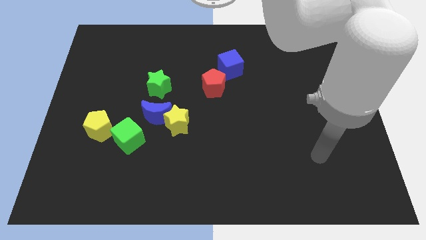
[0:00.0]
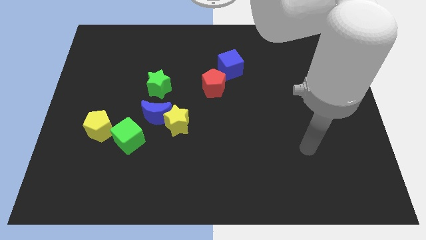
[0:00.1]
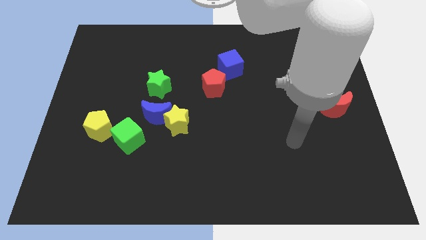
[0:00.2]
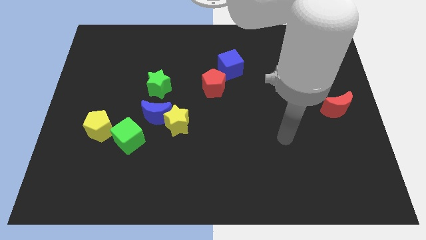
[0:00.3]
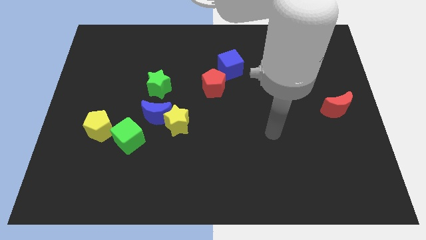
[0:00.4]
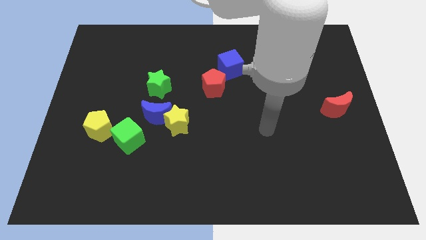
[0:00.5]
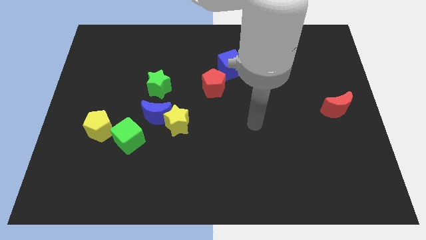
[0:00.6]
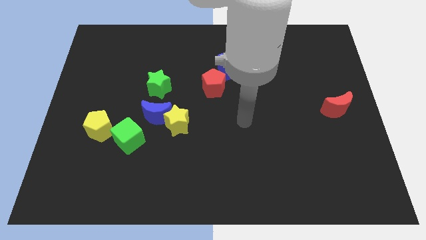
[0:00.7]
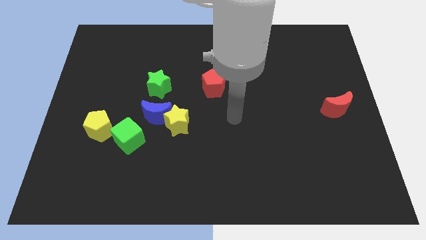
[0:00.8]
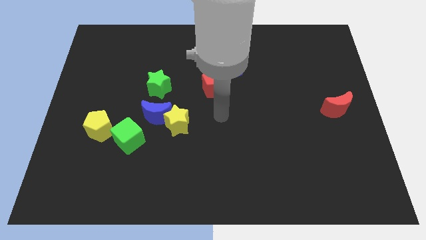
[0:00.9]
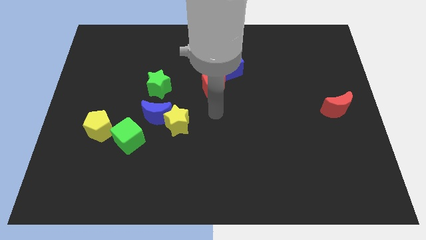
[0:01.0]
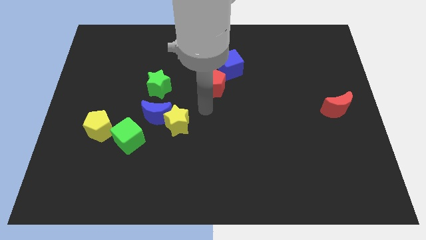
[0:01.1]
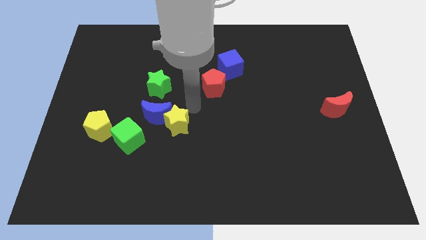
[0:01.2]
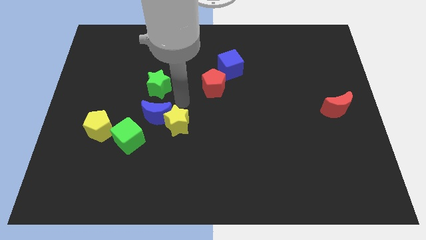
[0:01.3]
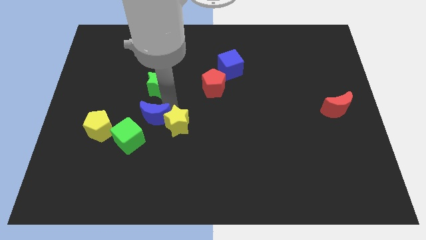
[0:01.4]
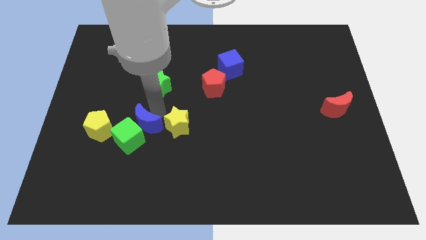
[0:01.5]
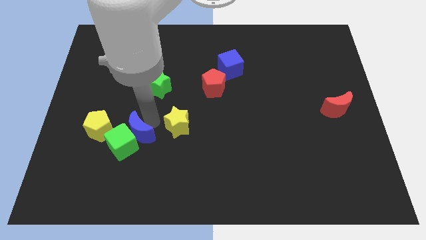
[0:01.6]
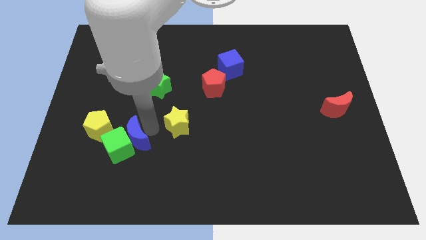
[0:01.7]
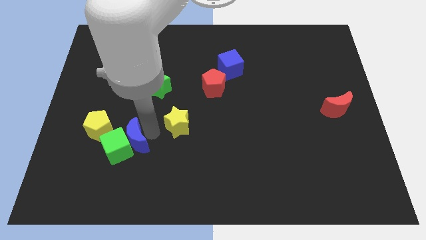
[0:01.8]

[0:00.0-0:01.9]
pull the yellow star apart from the blue moon

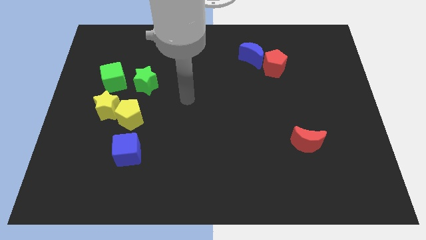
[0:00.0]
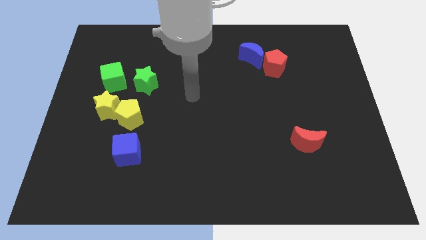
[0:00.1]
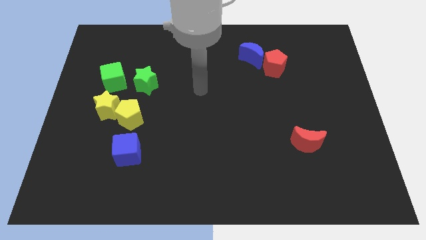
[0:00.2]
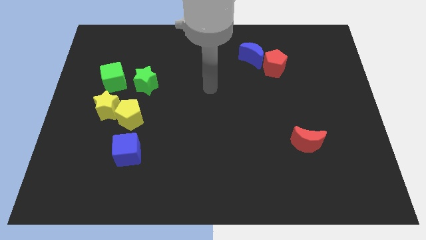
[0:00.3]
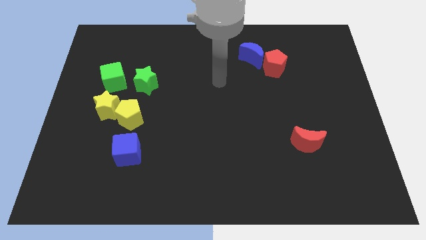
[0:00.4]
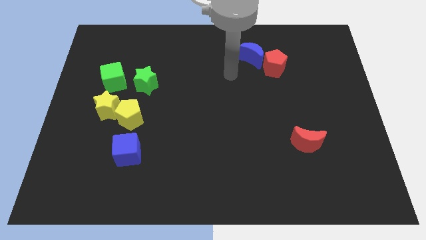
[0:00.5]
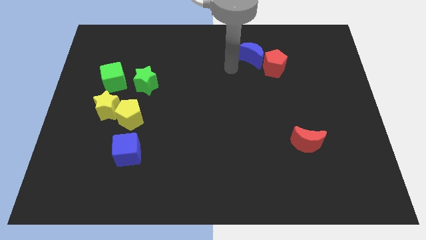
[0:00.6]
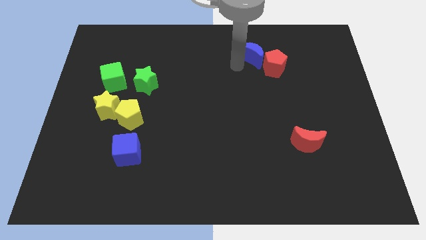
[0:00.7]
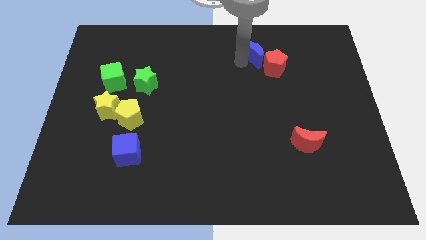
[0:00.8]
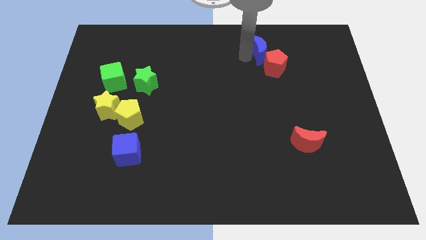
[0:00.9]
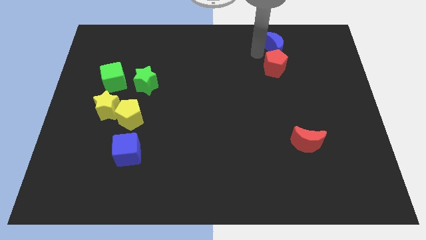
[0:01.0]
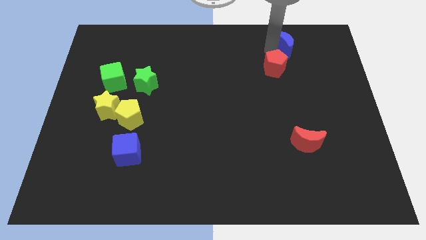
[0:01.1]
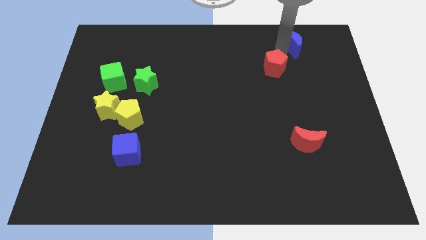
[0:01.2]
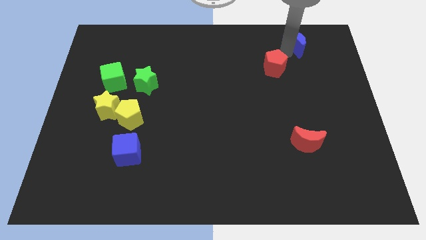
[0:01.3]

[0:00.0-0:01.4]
move the red pentagon away from the blue moon

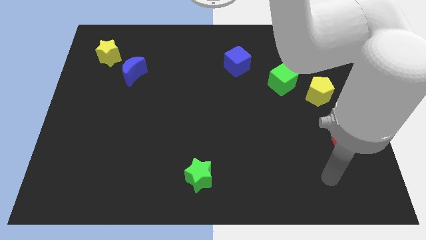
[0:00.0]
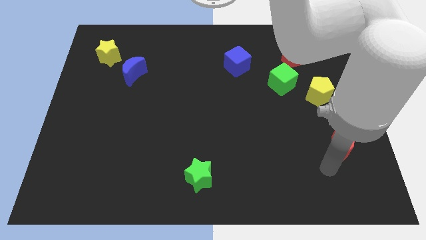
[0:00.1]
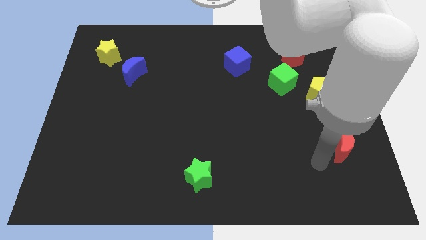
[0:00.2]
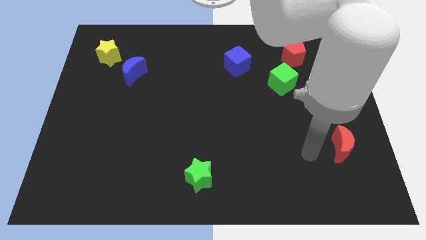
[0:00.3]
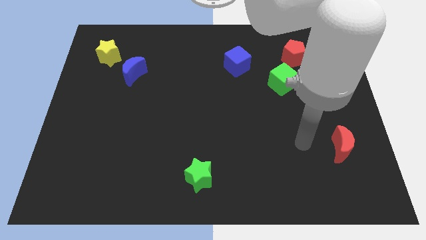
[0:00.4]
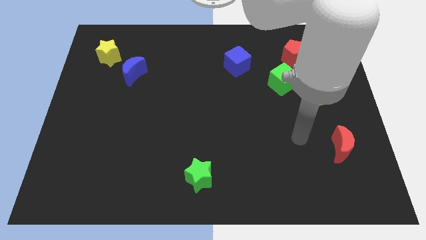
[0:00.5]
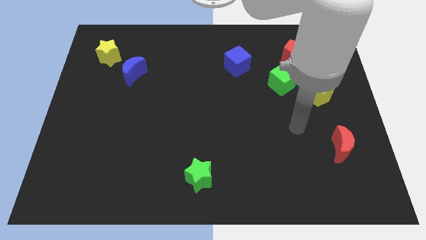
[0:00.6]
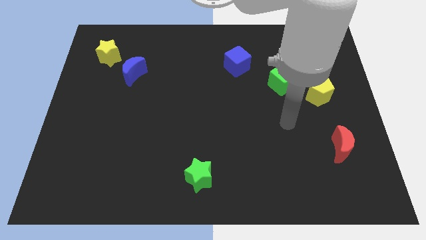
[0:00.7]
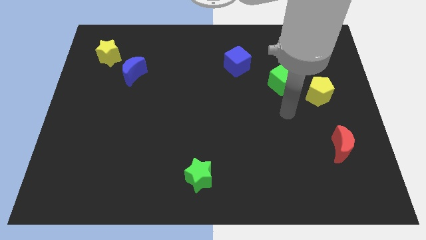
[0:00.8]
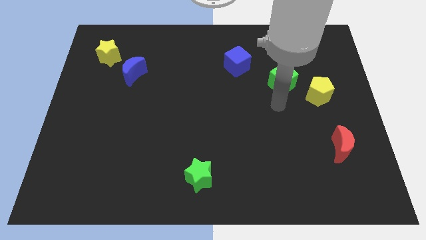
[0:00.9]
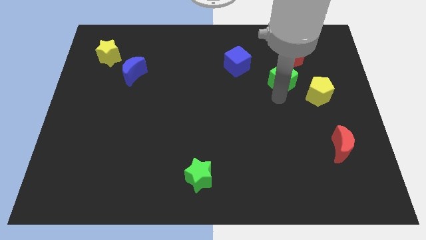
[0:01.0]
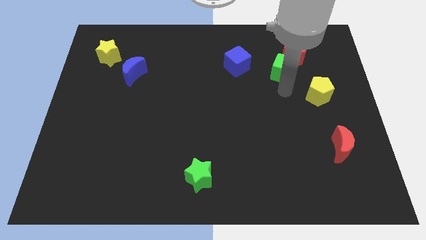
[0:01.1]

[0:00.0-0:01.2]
move the yellow pentagon away from the green cube

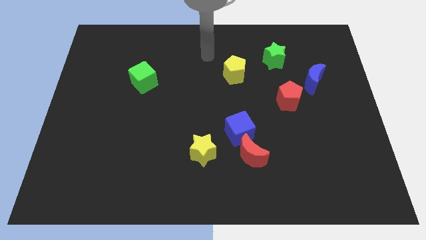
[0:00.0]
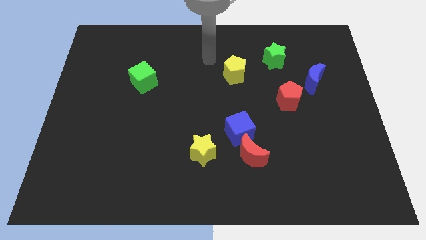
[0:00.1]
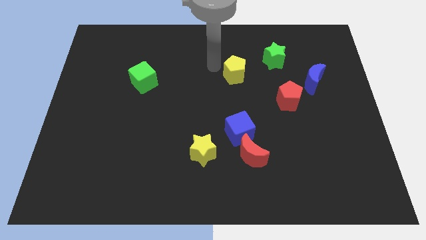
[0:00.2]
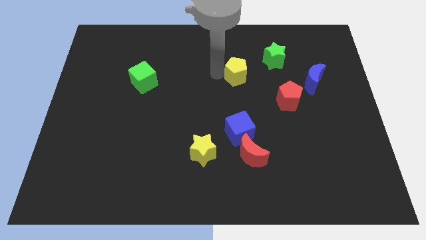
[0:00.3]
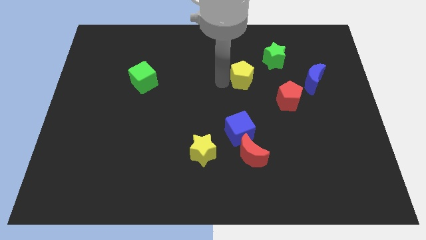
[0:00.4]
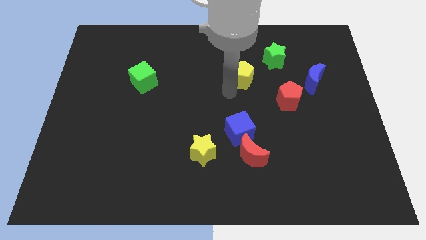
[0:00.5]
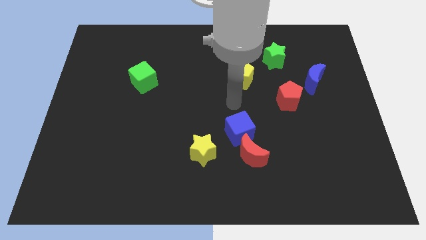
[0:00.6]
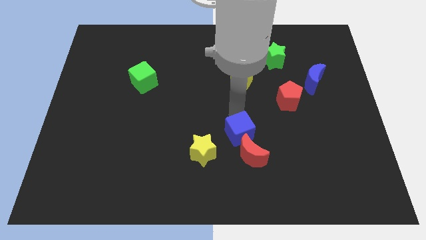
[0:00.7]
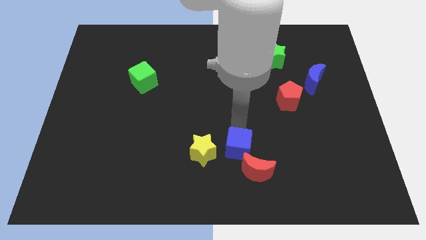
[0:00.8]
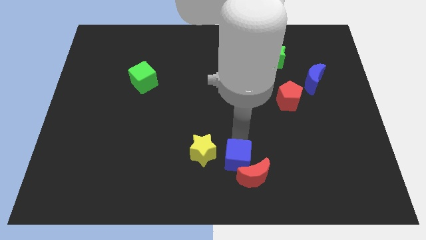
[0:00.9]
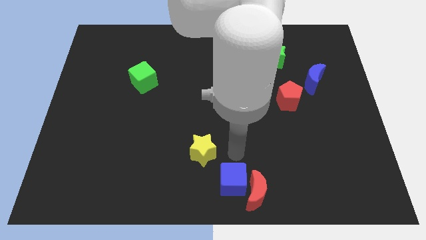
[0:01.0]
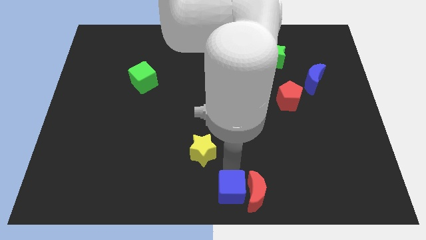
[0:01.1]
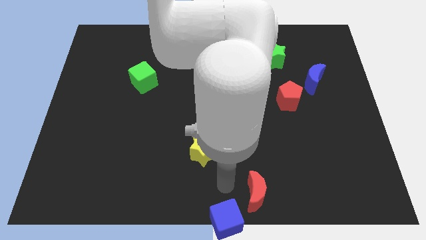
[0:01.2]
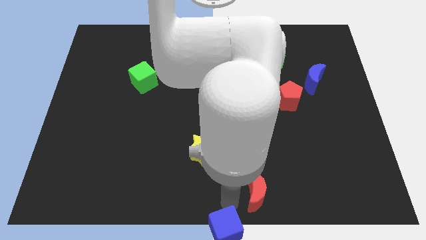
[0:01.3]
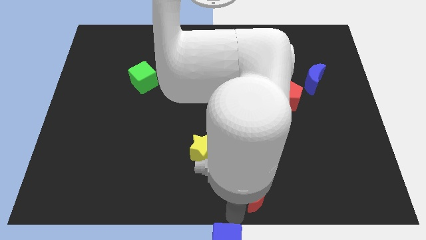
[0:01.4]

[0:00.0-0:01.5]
separate the red moon from the blue cube

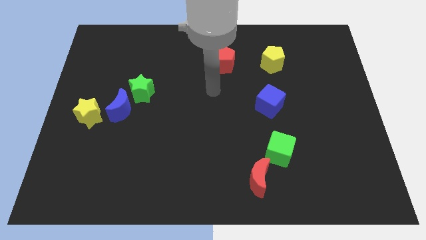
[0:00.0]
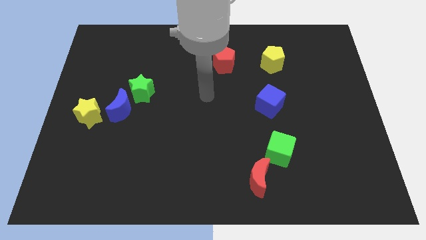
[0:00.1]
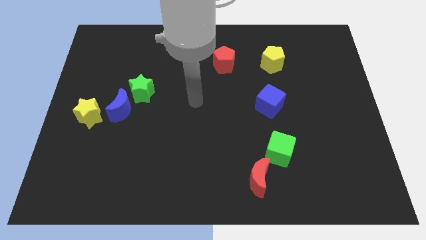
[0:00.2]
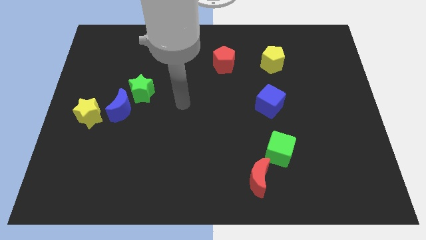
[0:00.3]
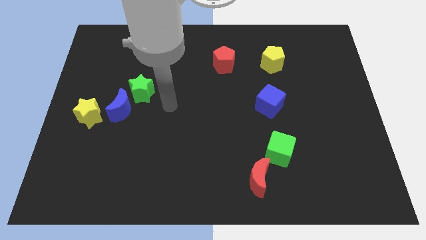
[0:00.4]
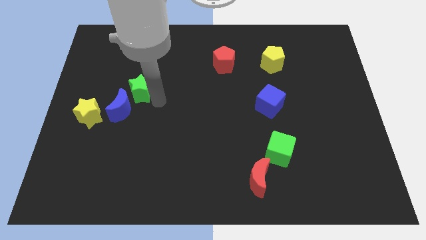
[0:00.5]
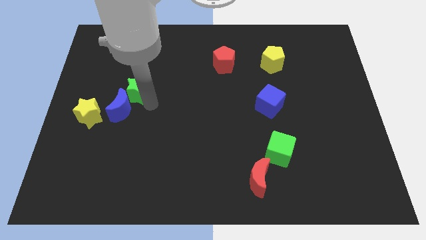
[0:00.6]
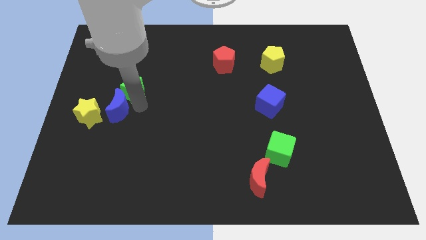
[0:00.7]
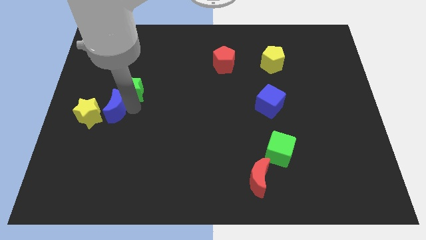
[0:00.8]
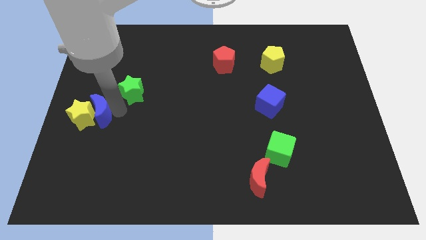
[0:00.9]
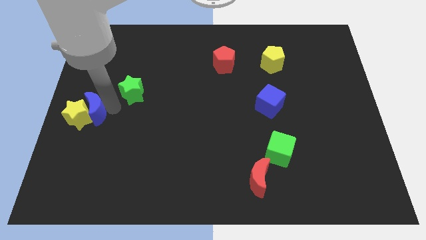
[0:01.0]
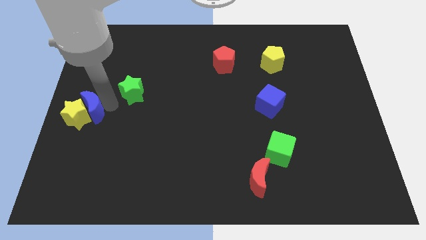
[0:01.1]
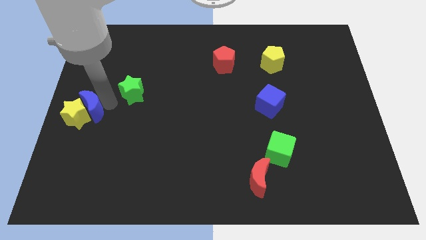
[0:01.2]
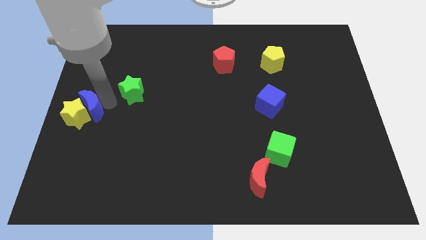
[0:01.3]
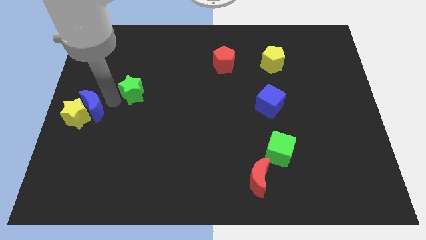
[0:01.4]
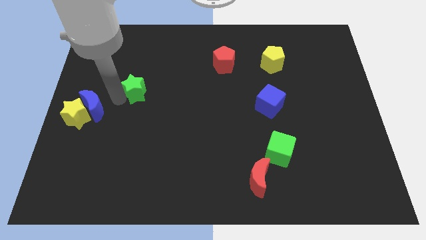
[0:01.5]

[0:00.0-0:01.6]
separate the green star from the blue moon

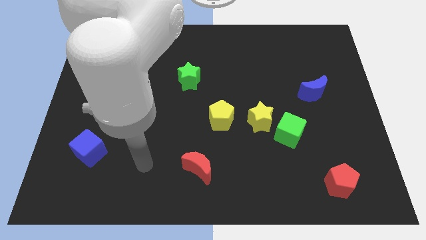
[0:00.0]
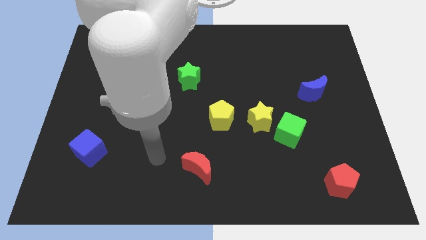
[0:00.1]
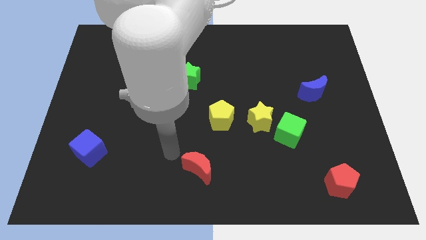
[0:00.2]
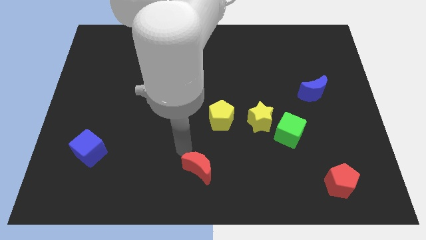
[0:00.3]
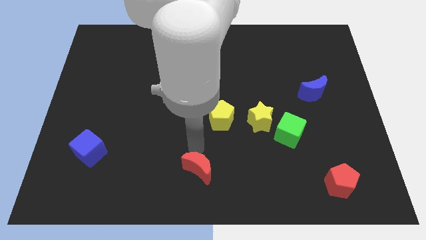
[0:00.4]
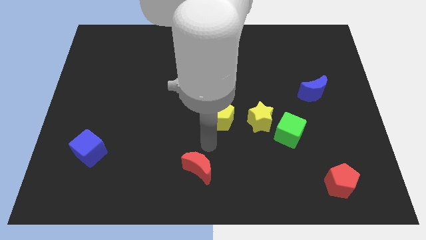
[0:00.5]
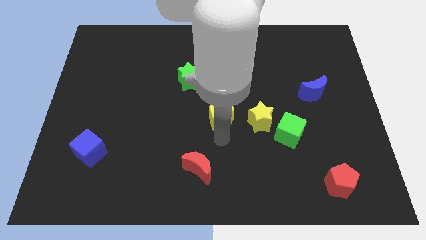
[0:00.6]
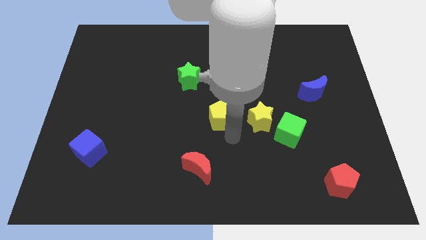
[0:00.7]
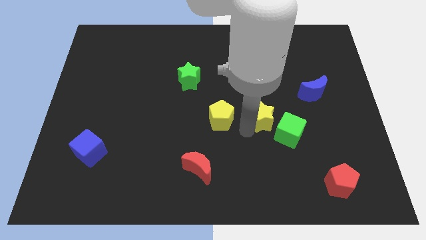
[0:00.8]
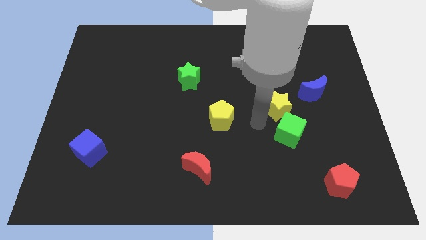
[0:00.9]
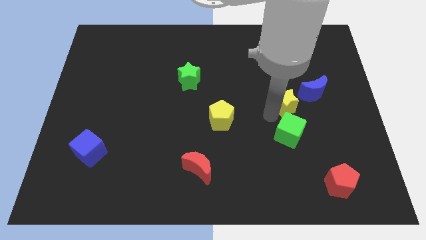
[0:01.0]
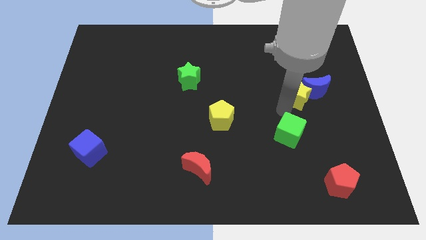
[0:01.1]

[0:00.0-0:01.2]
separate the green cube from the yellow star

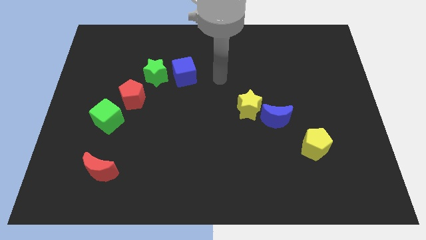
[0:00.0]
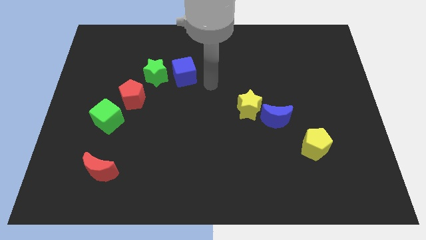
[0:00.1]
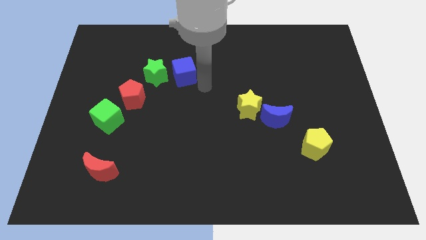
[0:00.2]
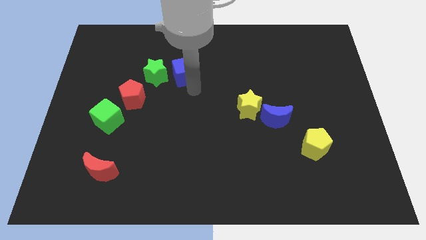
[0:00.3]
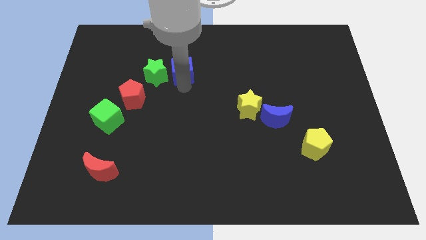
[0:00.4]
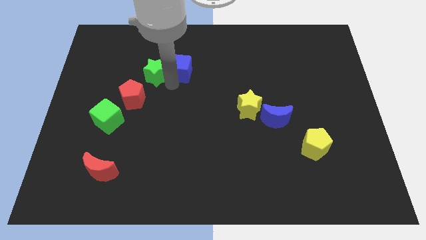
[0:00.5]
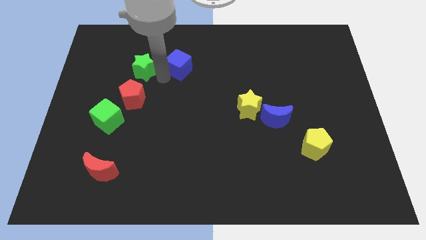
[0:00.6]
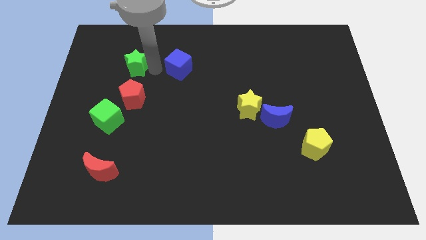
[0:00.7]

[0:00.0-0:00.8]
pull the blue cube apart from the green star
